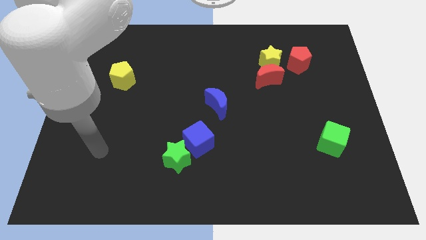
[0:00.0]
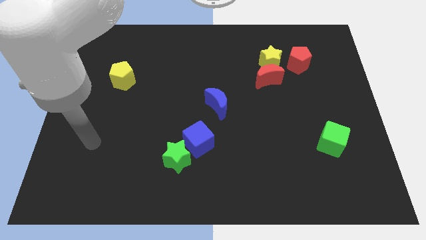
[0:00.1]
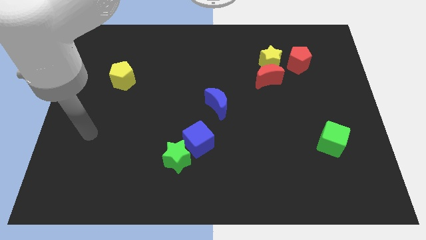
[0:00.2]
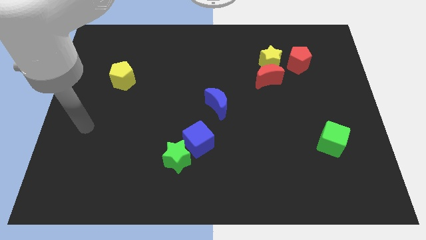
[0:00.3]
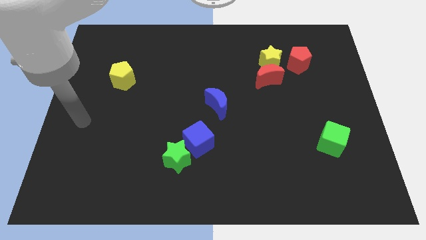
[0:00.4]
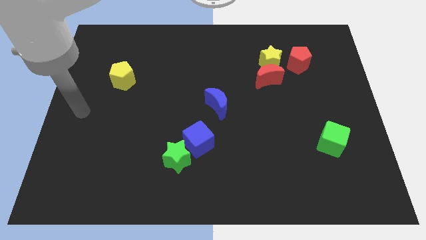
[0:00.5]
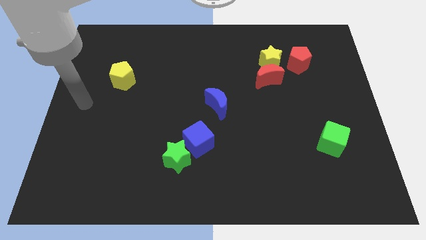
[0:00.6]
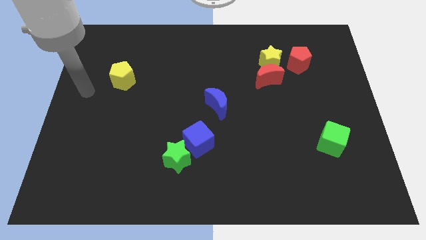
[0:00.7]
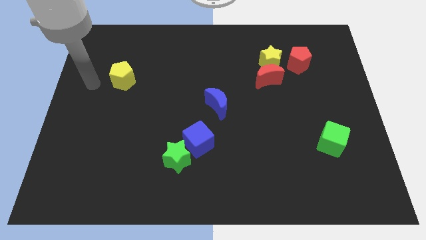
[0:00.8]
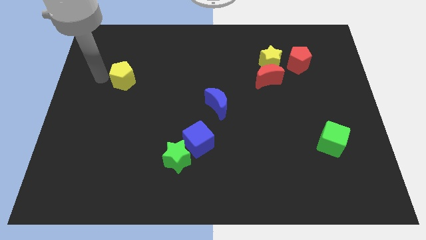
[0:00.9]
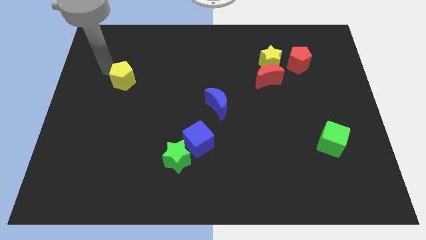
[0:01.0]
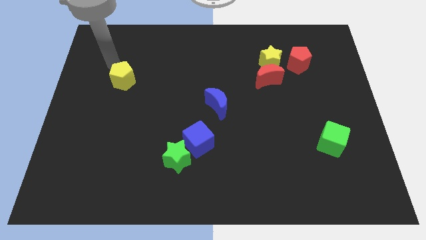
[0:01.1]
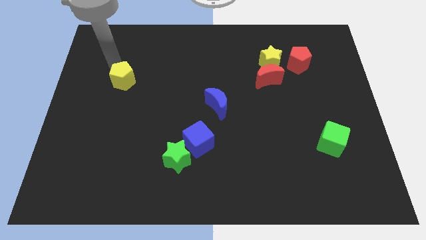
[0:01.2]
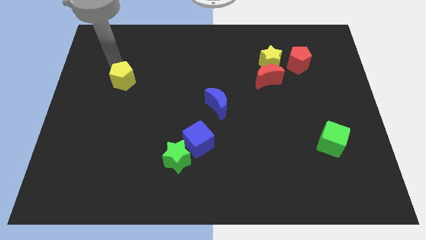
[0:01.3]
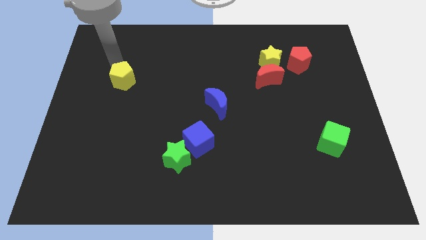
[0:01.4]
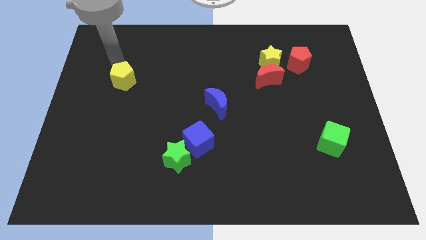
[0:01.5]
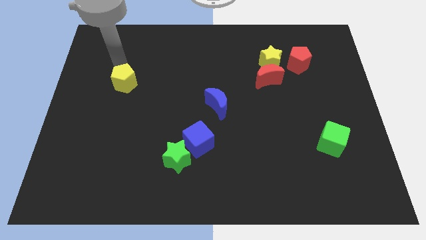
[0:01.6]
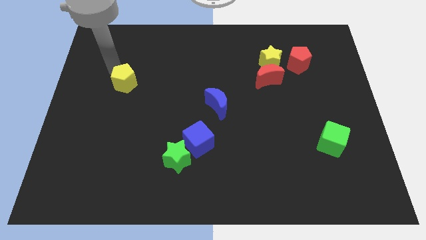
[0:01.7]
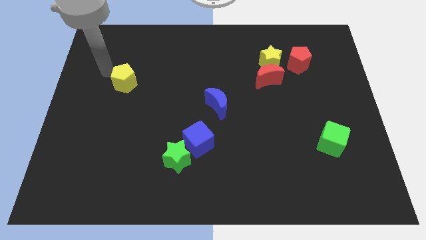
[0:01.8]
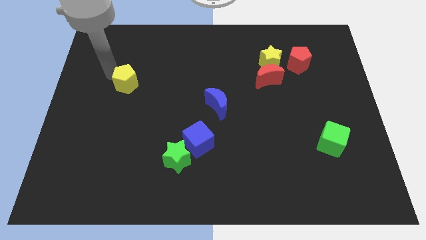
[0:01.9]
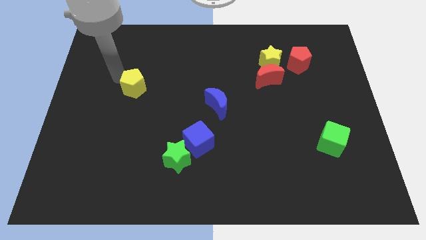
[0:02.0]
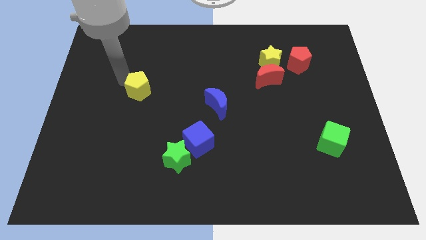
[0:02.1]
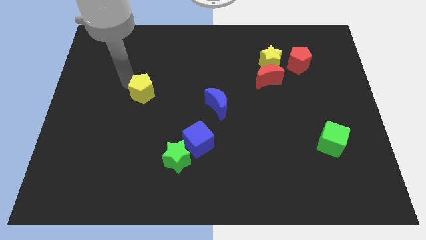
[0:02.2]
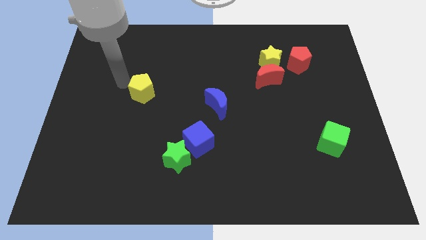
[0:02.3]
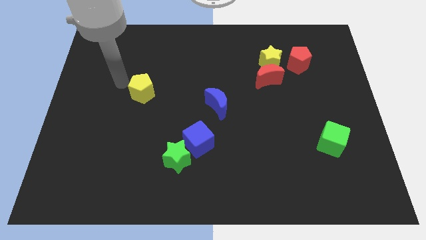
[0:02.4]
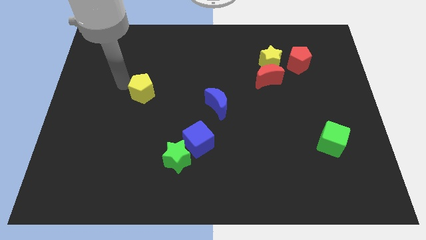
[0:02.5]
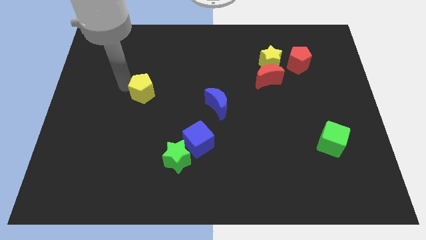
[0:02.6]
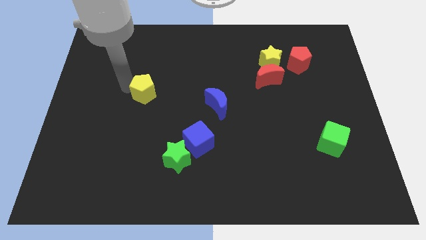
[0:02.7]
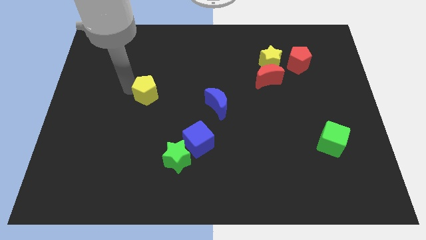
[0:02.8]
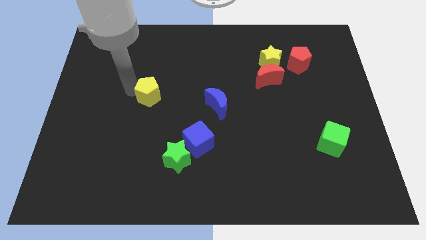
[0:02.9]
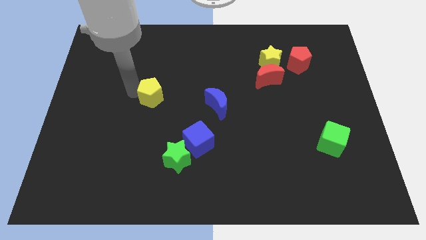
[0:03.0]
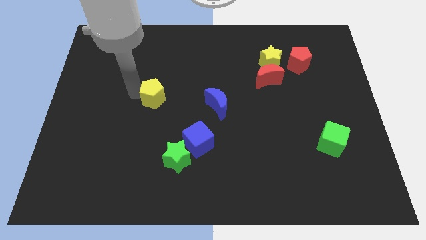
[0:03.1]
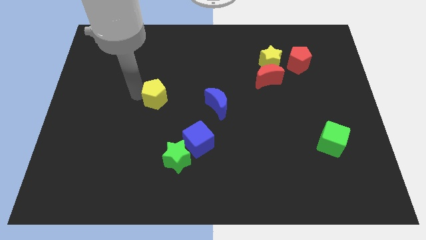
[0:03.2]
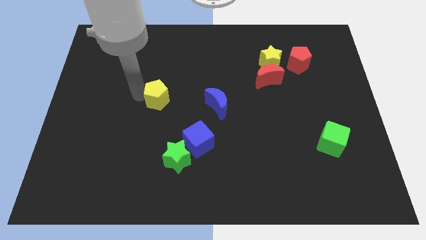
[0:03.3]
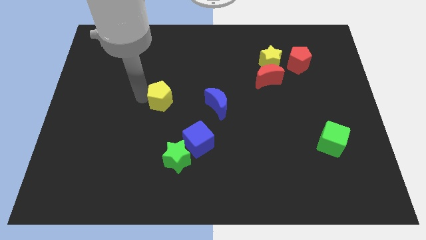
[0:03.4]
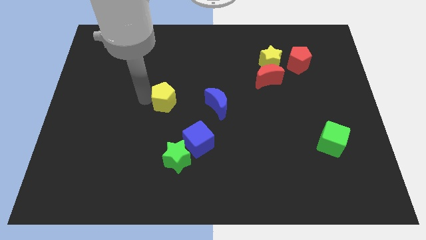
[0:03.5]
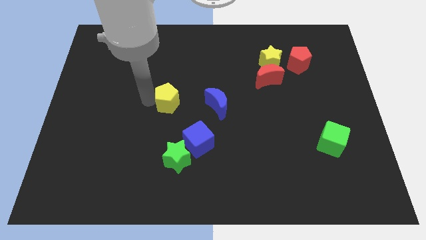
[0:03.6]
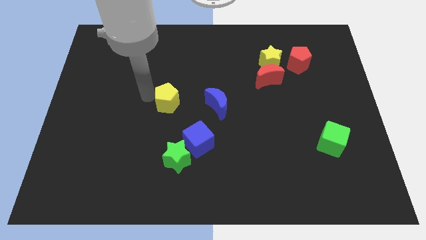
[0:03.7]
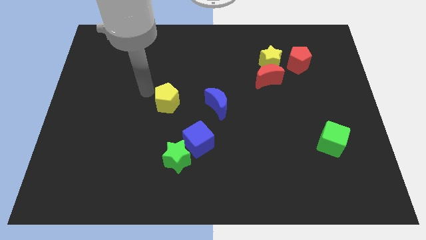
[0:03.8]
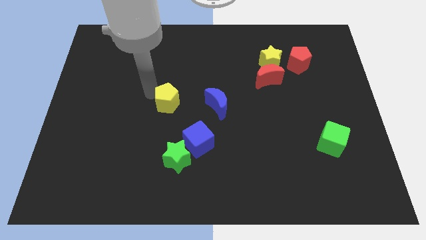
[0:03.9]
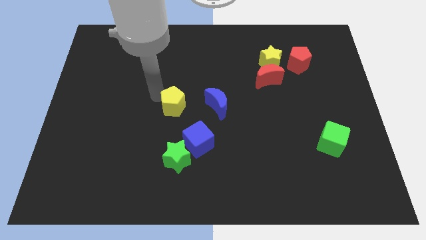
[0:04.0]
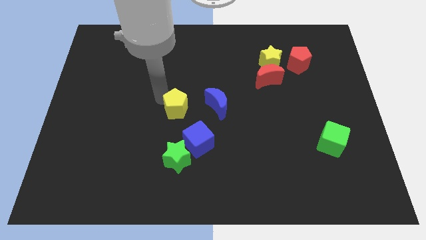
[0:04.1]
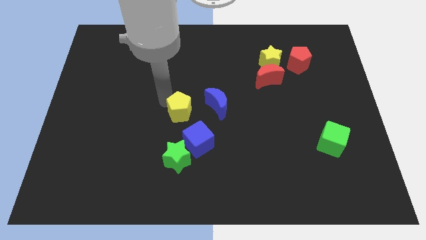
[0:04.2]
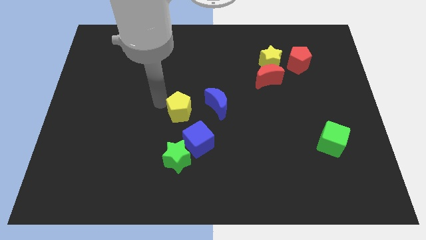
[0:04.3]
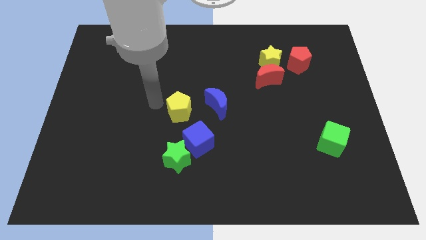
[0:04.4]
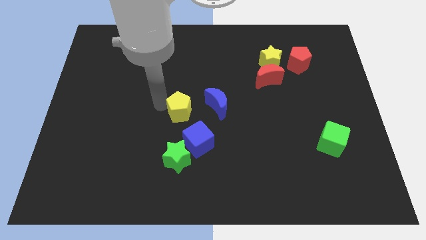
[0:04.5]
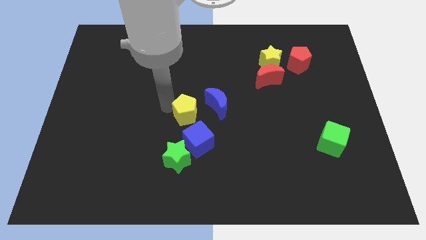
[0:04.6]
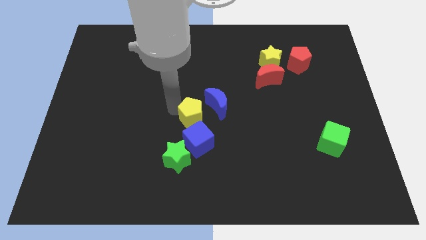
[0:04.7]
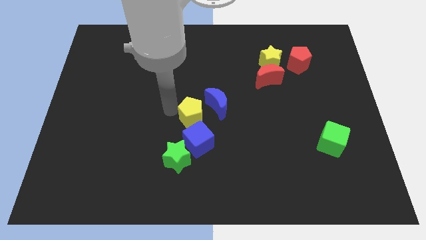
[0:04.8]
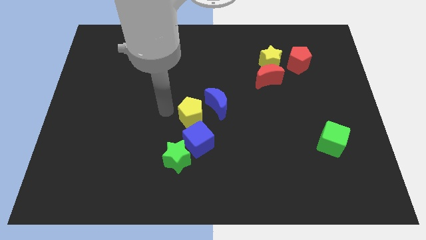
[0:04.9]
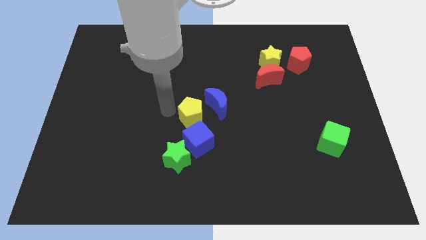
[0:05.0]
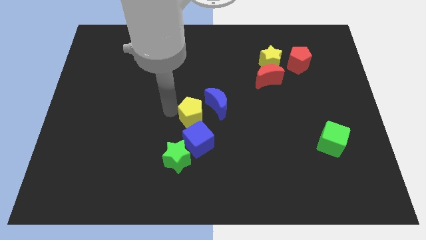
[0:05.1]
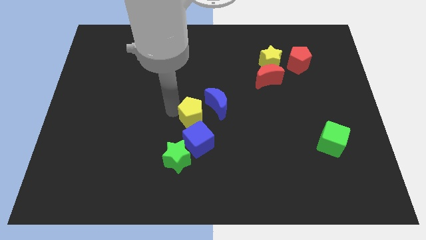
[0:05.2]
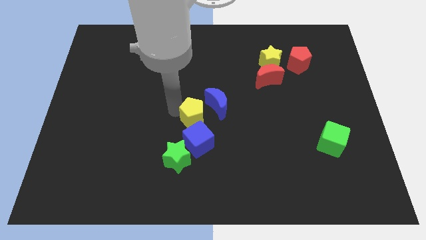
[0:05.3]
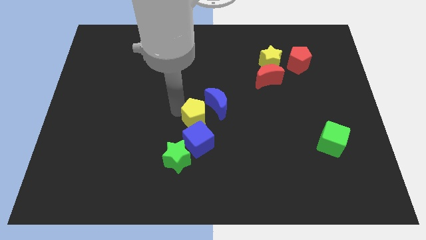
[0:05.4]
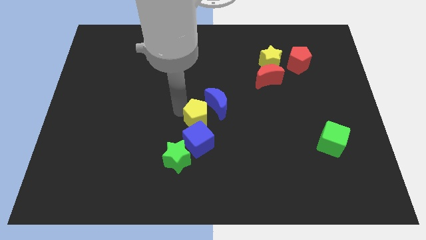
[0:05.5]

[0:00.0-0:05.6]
slide the yellow pentagon to the bottom side of the blue moon

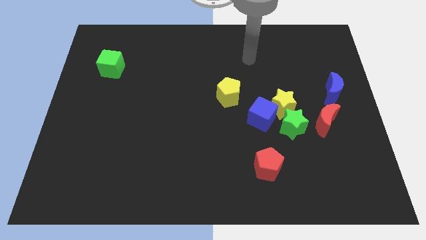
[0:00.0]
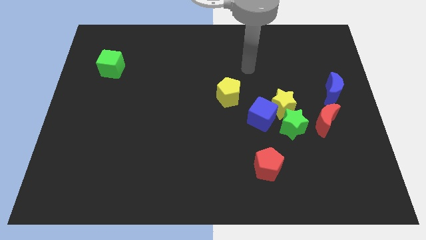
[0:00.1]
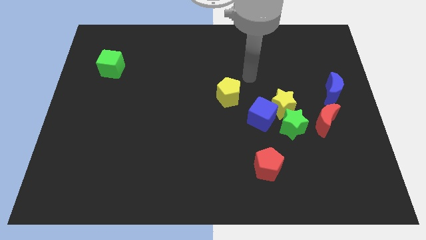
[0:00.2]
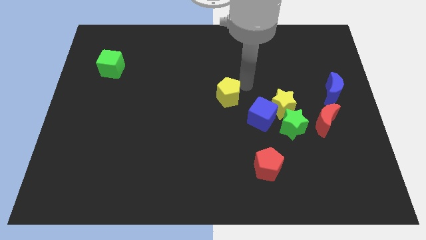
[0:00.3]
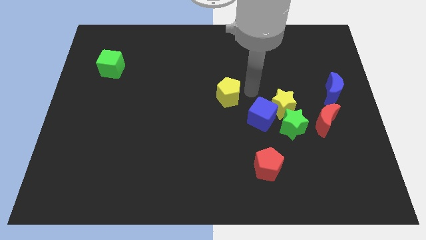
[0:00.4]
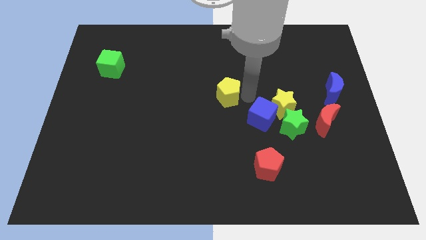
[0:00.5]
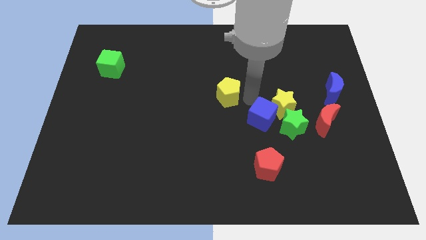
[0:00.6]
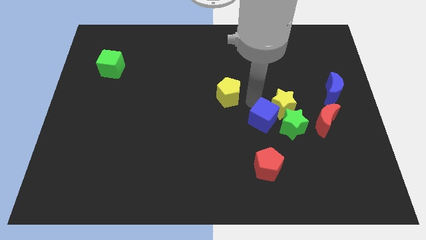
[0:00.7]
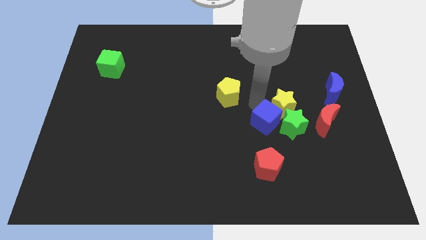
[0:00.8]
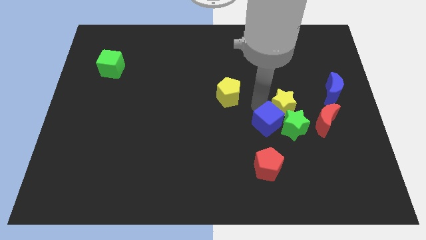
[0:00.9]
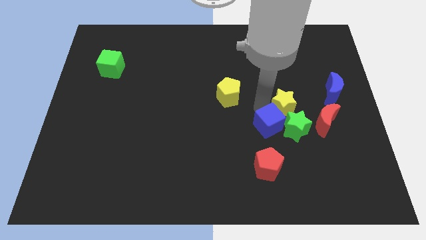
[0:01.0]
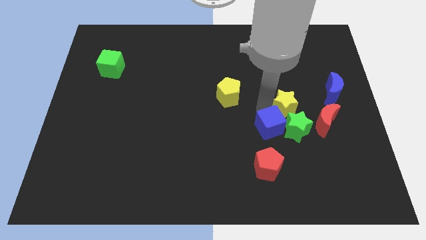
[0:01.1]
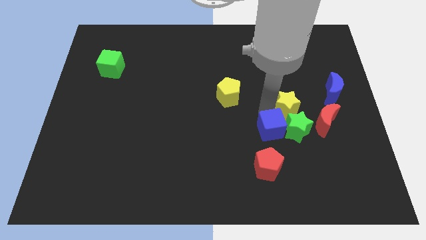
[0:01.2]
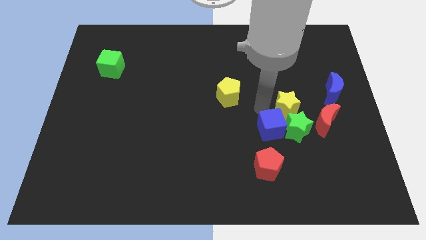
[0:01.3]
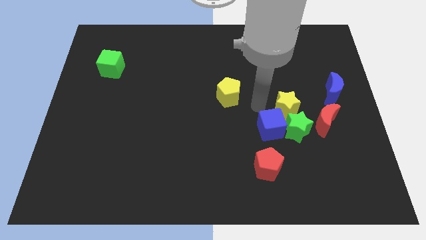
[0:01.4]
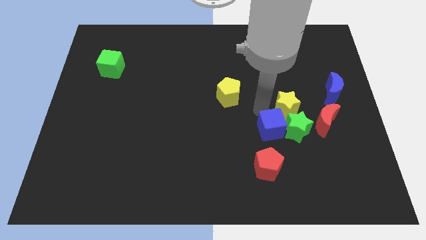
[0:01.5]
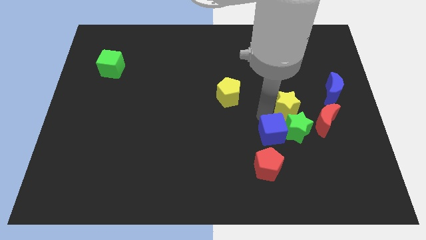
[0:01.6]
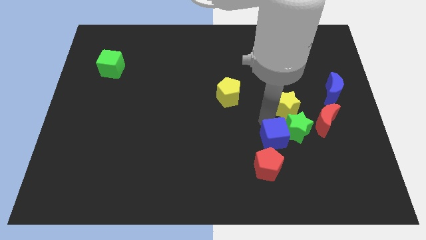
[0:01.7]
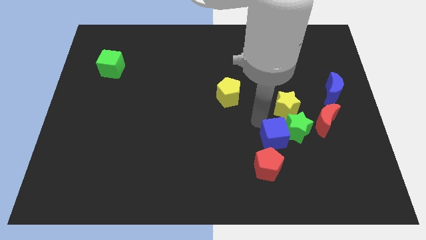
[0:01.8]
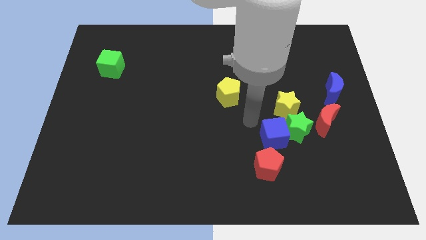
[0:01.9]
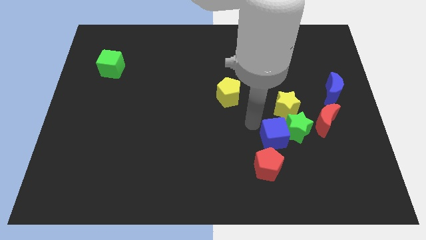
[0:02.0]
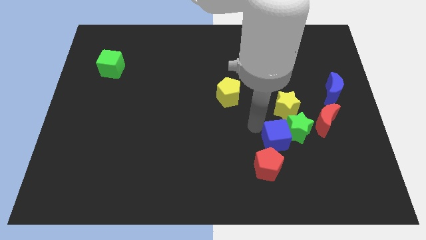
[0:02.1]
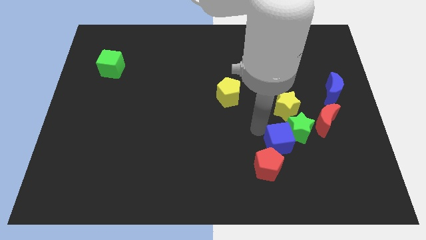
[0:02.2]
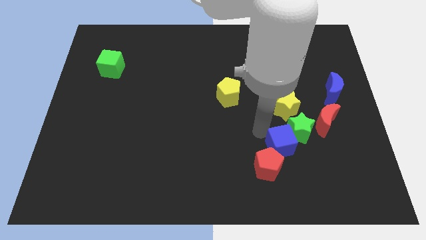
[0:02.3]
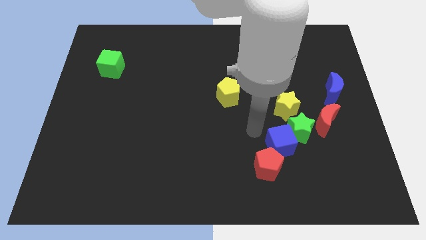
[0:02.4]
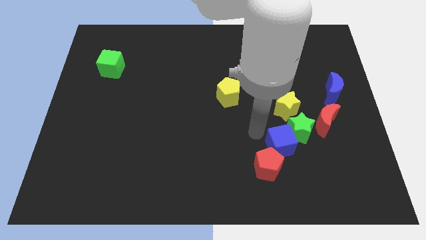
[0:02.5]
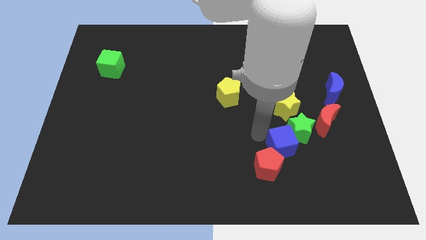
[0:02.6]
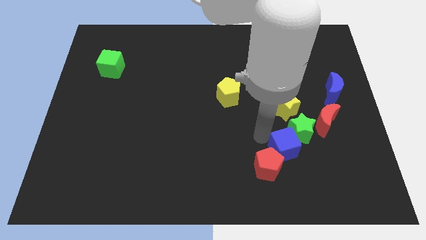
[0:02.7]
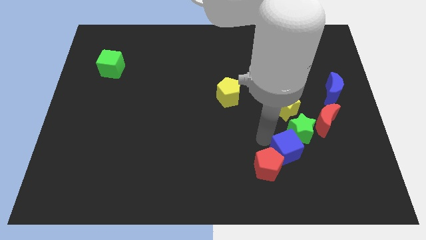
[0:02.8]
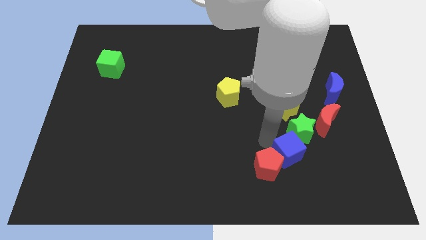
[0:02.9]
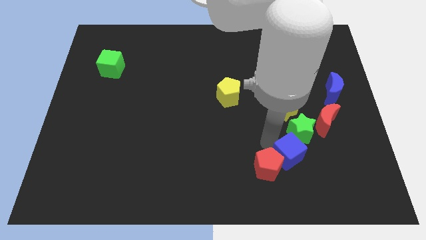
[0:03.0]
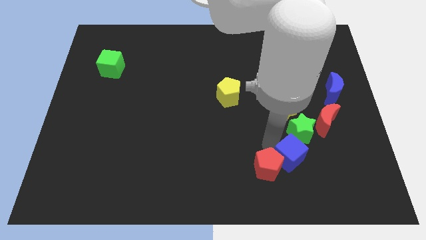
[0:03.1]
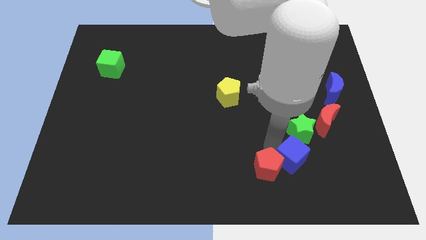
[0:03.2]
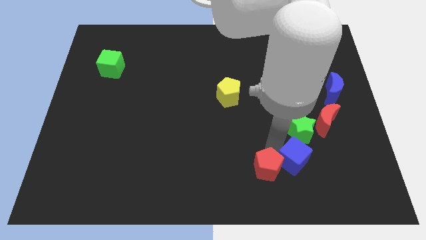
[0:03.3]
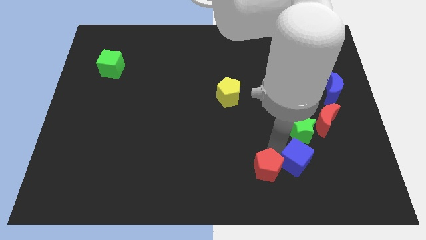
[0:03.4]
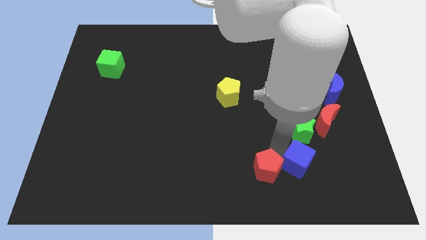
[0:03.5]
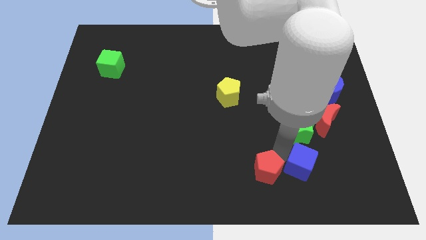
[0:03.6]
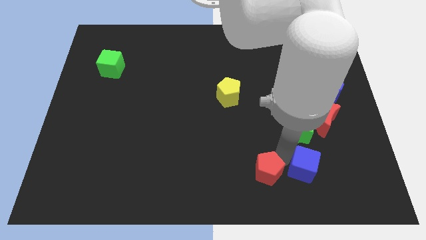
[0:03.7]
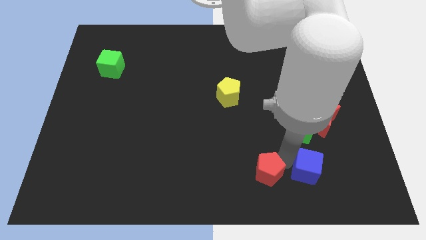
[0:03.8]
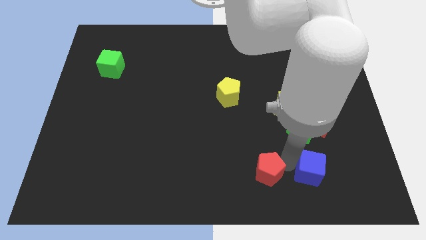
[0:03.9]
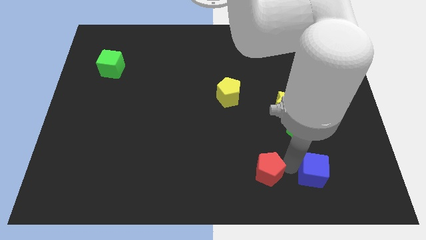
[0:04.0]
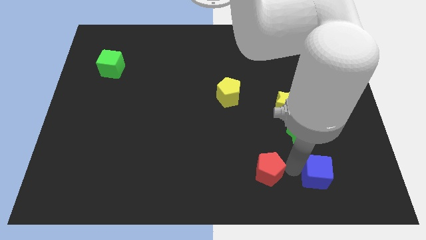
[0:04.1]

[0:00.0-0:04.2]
push the blue cube to the bottom of the red moon
